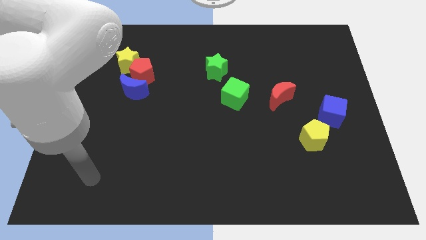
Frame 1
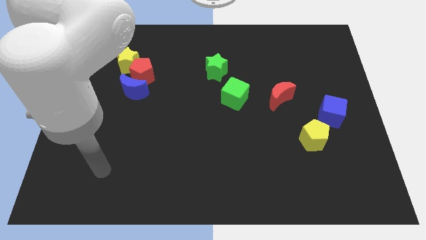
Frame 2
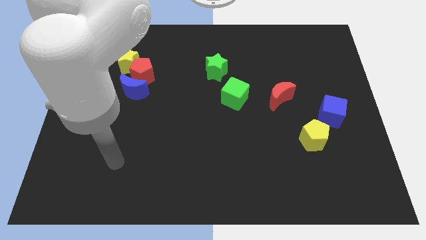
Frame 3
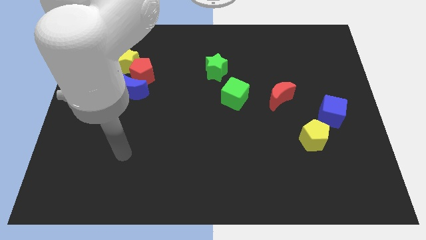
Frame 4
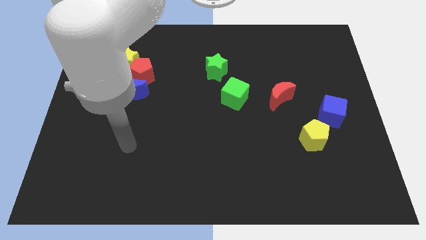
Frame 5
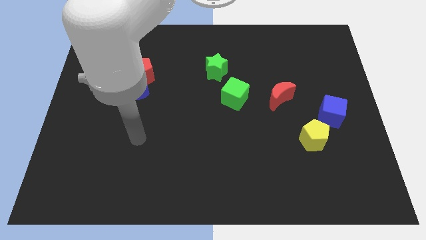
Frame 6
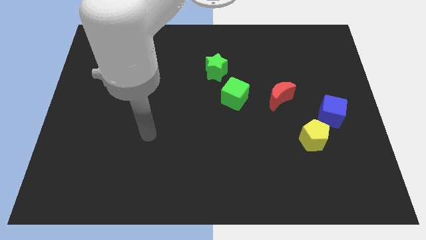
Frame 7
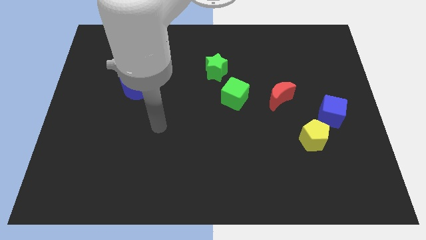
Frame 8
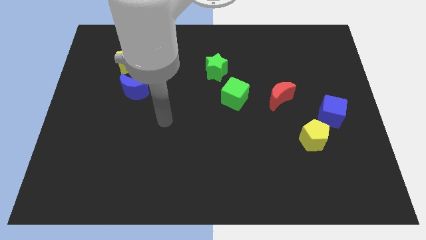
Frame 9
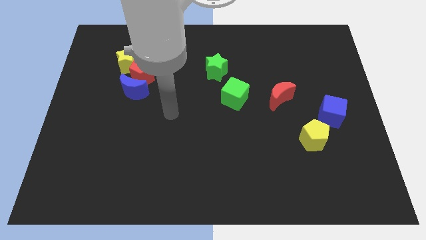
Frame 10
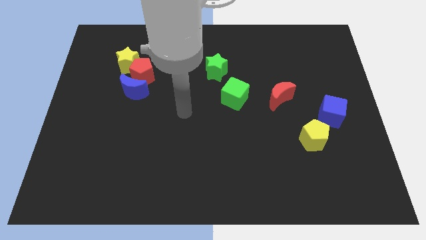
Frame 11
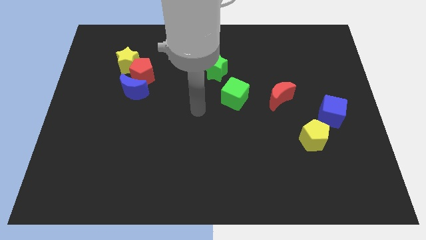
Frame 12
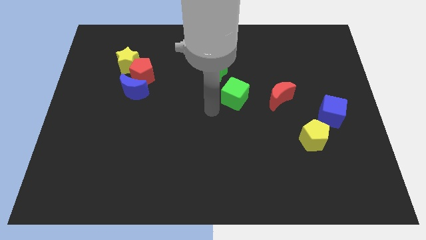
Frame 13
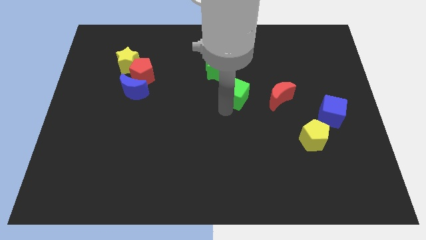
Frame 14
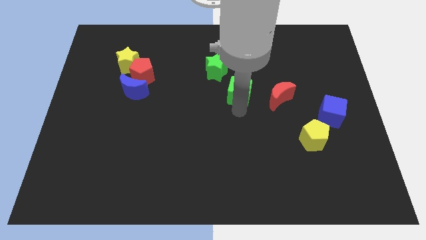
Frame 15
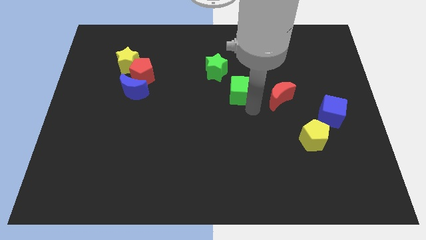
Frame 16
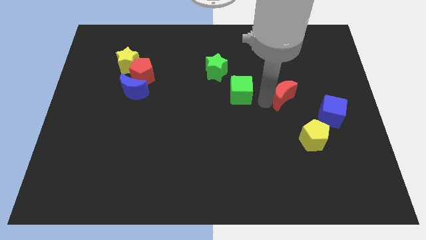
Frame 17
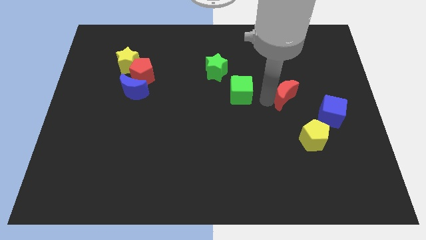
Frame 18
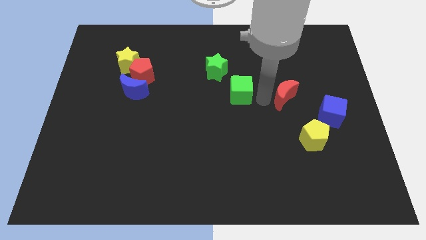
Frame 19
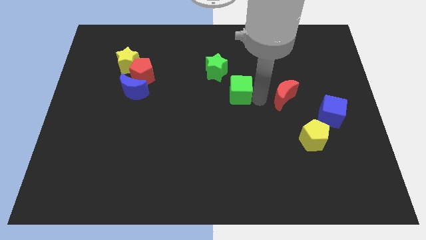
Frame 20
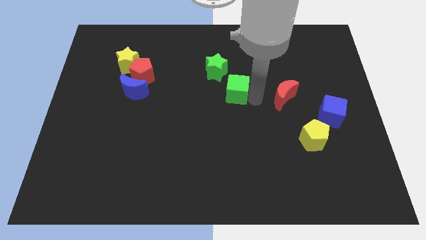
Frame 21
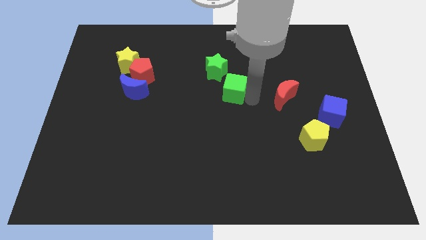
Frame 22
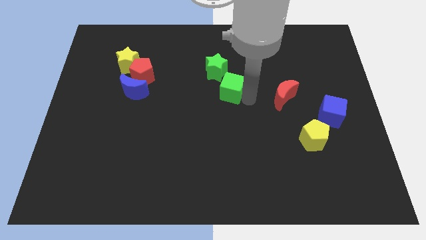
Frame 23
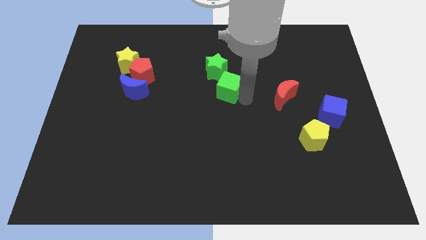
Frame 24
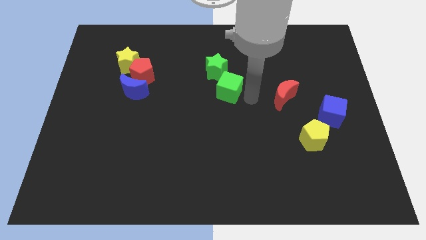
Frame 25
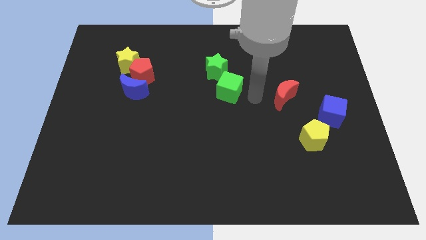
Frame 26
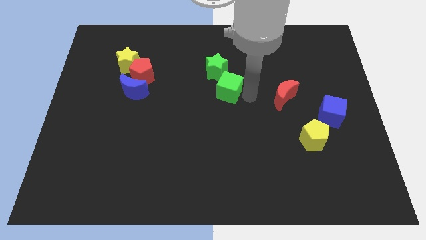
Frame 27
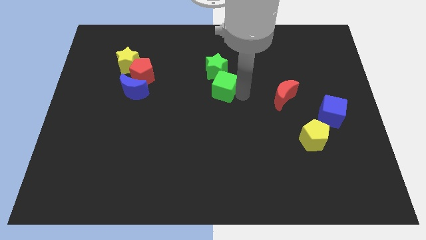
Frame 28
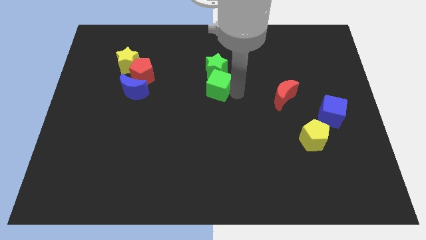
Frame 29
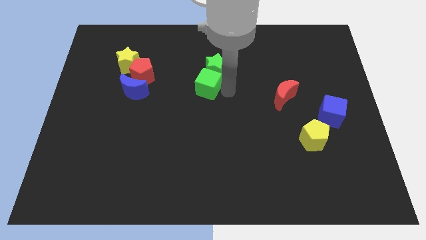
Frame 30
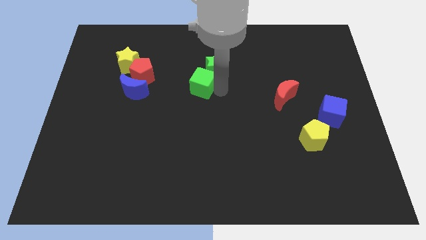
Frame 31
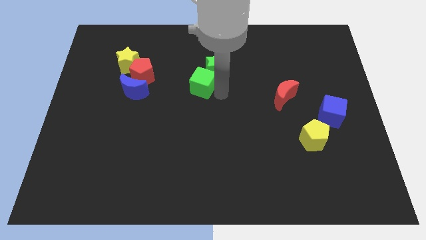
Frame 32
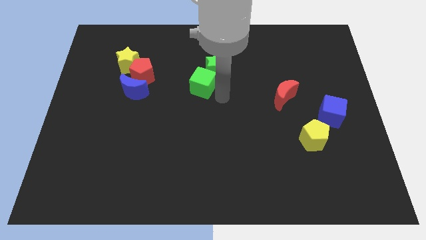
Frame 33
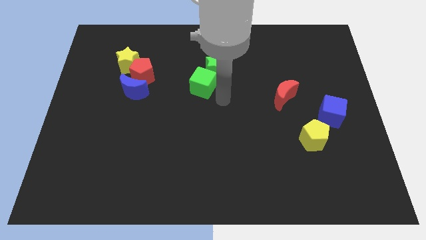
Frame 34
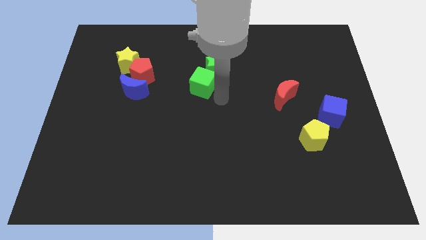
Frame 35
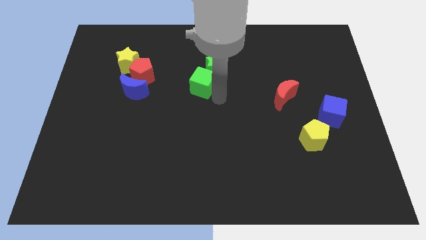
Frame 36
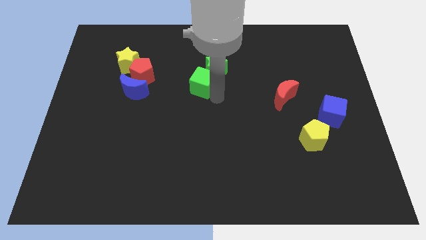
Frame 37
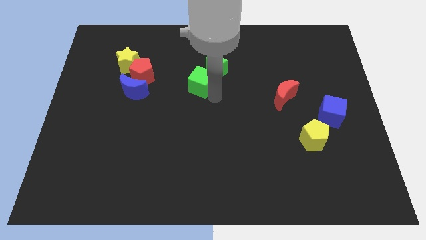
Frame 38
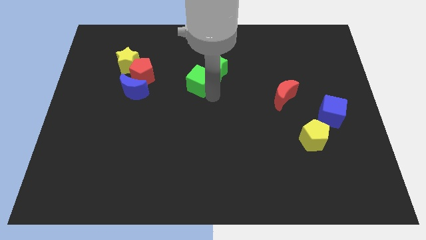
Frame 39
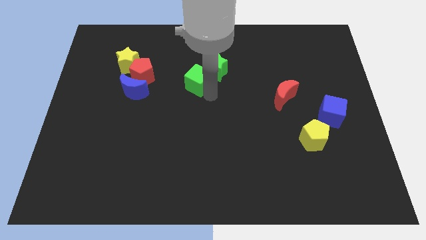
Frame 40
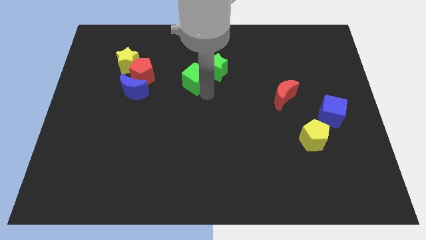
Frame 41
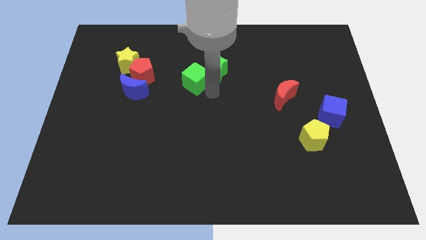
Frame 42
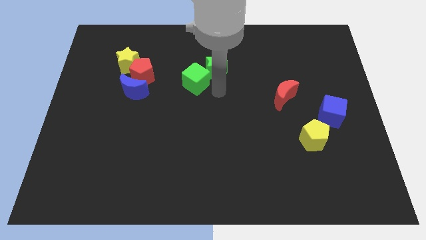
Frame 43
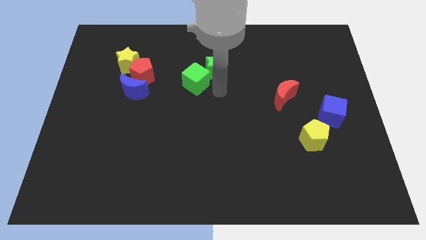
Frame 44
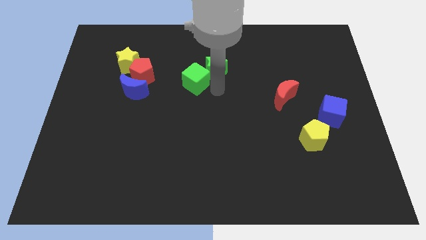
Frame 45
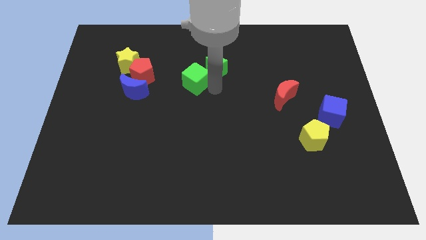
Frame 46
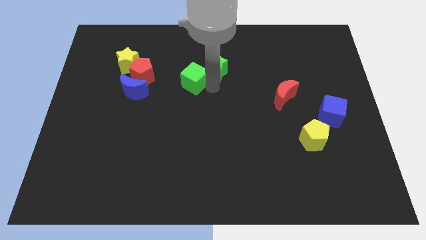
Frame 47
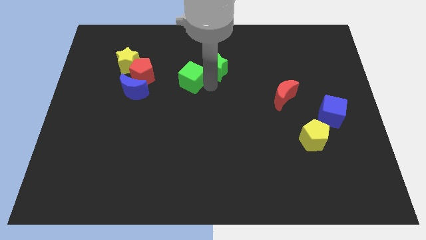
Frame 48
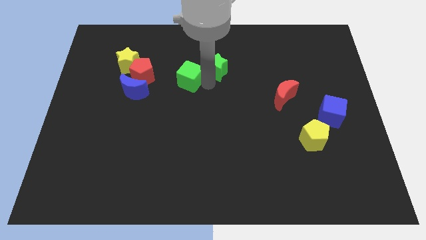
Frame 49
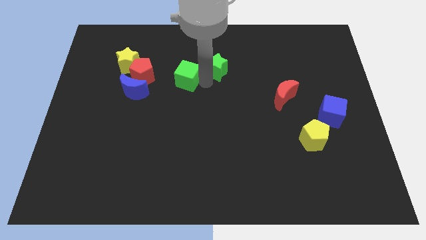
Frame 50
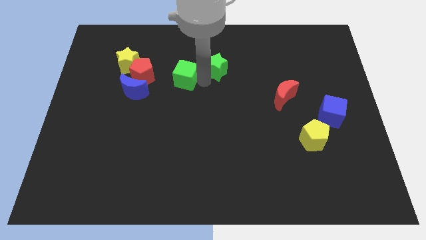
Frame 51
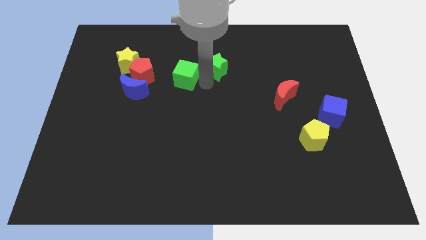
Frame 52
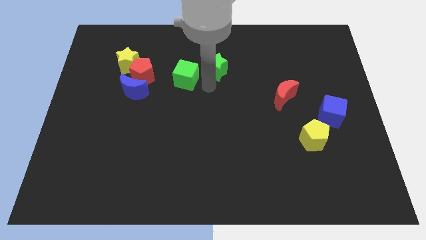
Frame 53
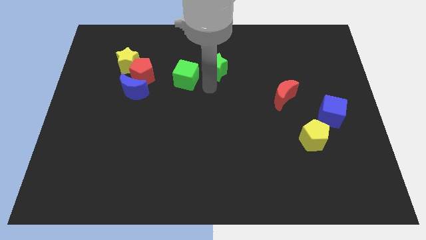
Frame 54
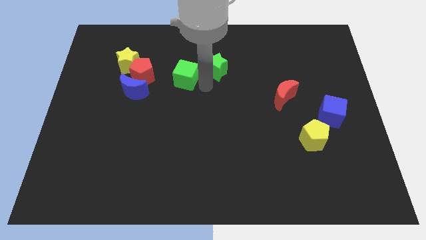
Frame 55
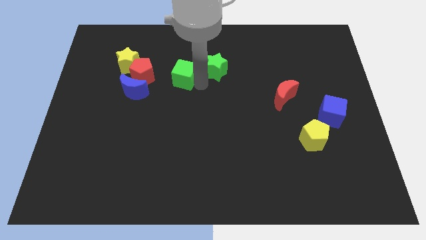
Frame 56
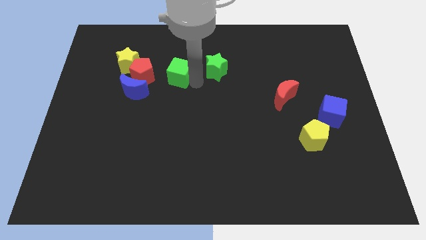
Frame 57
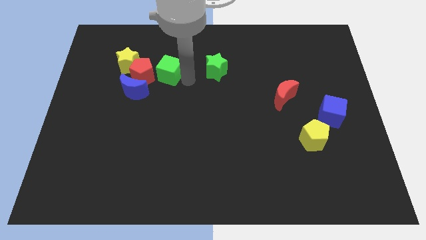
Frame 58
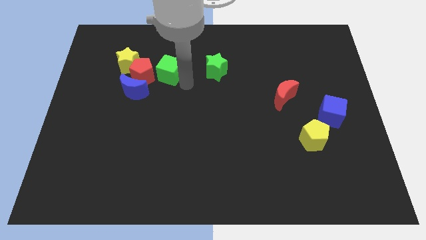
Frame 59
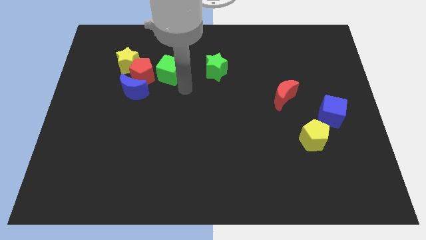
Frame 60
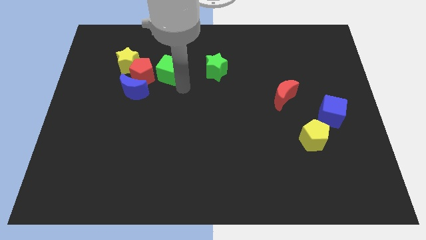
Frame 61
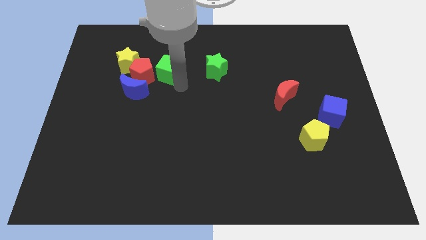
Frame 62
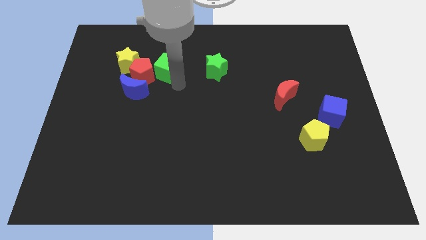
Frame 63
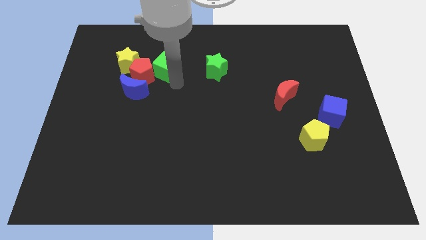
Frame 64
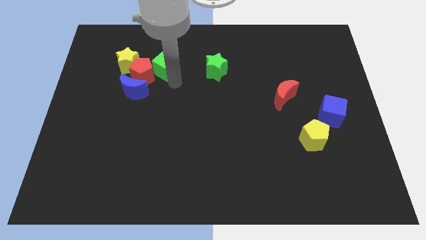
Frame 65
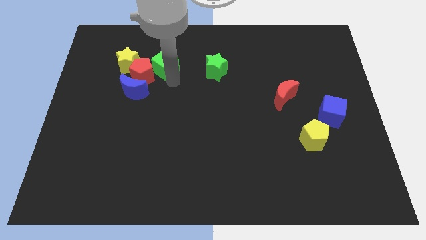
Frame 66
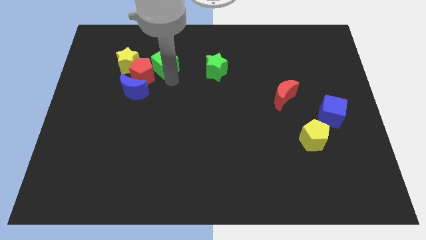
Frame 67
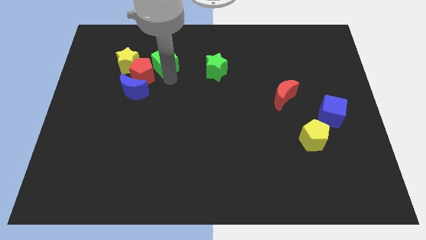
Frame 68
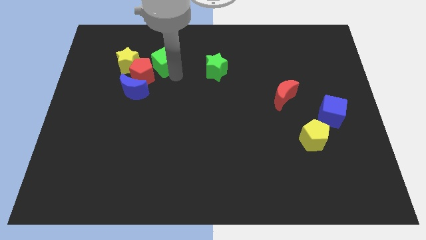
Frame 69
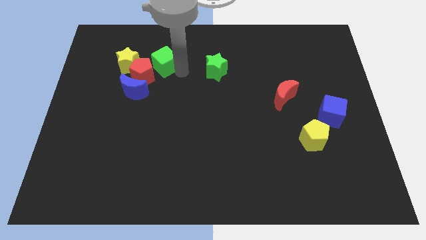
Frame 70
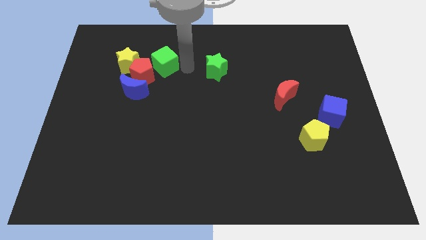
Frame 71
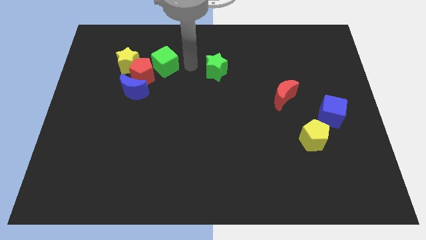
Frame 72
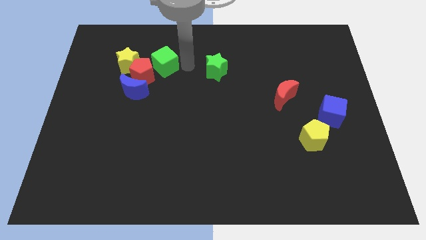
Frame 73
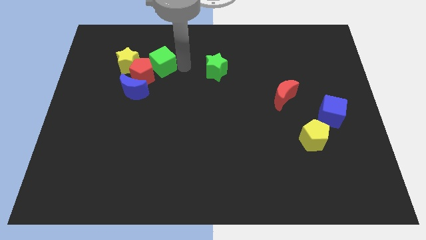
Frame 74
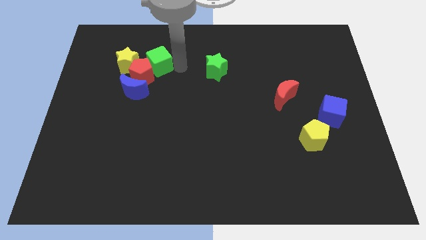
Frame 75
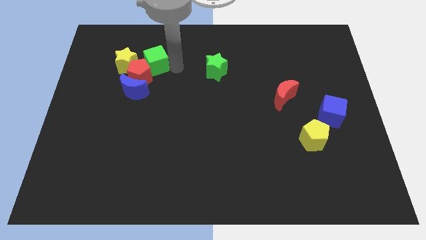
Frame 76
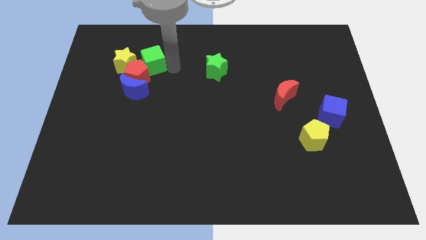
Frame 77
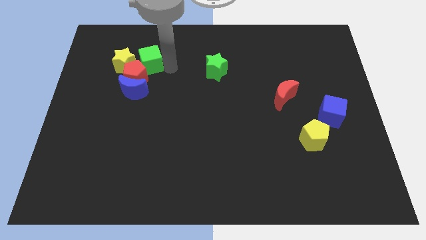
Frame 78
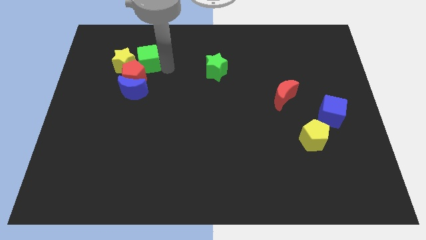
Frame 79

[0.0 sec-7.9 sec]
put the green cube next to the yellow star

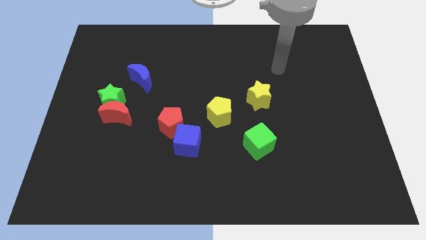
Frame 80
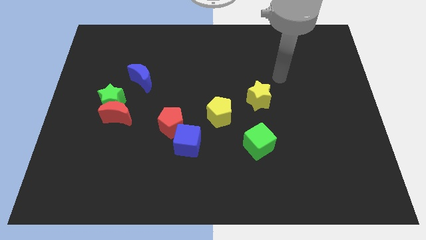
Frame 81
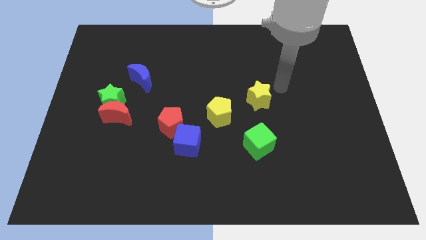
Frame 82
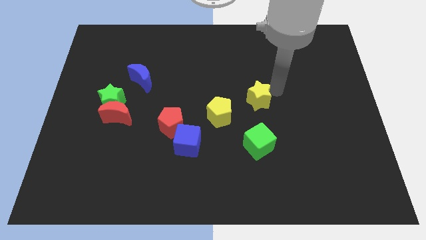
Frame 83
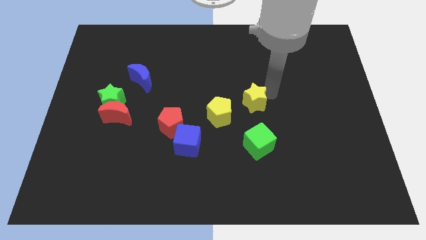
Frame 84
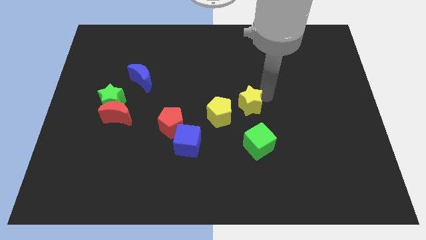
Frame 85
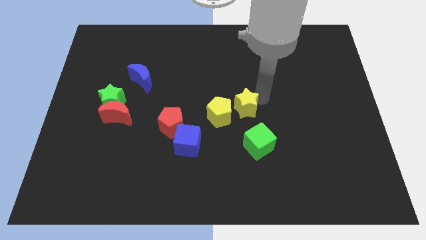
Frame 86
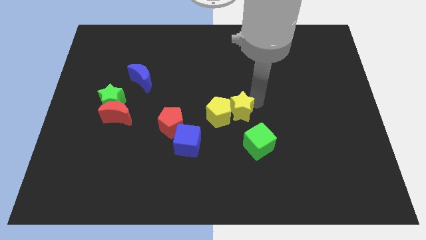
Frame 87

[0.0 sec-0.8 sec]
slide the yellow star to the yellow pentagon
